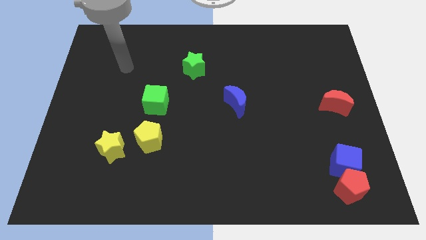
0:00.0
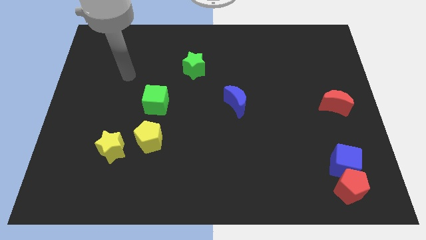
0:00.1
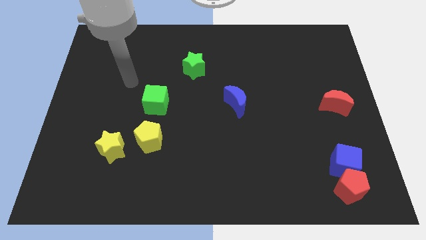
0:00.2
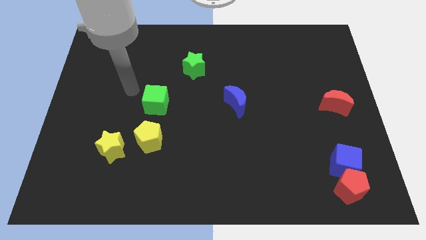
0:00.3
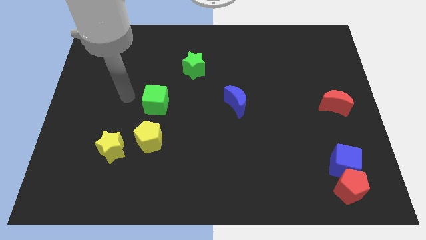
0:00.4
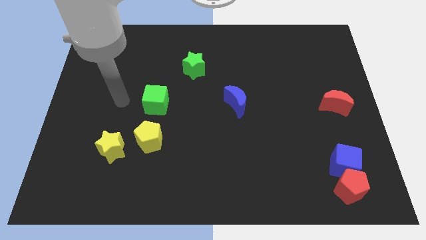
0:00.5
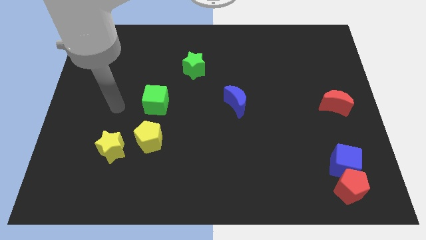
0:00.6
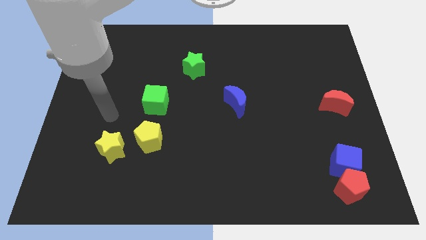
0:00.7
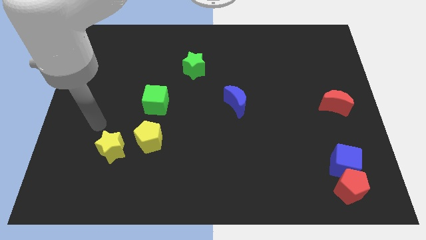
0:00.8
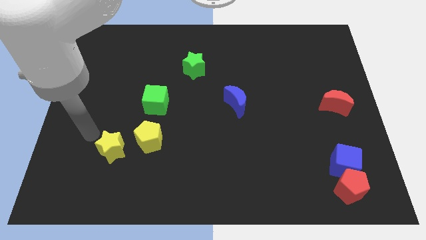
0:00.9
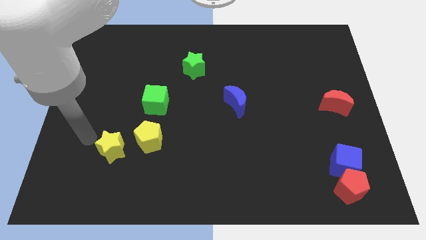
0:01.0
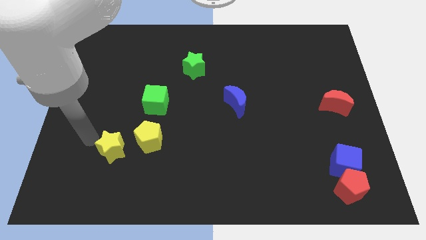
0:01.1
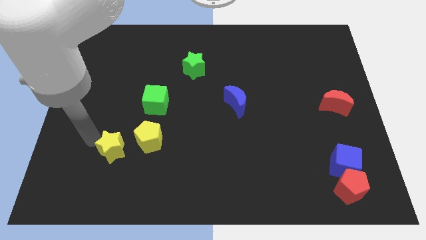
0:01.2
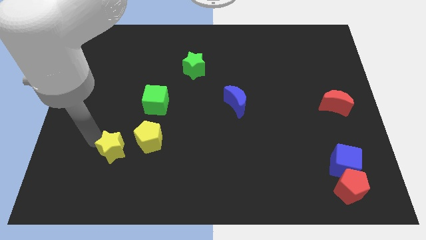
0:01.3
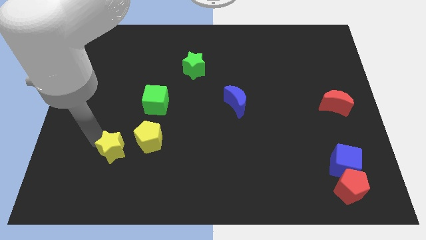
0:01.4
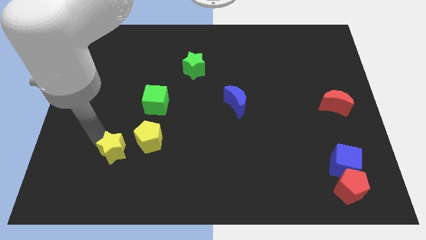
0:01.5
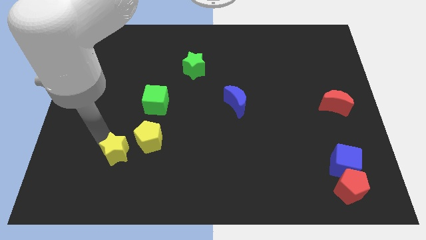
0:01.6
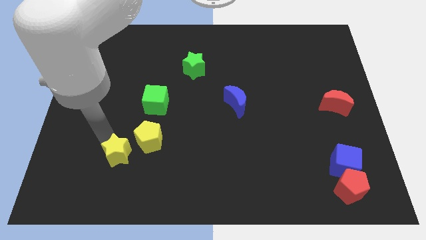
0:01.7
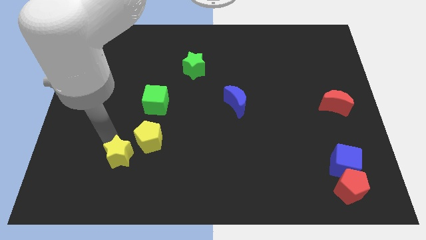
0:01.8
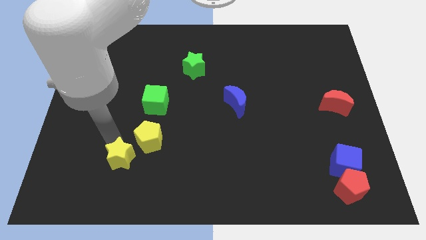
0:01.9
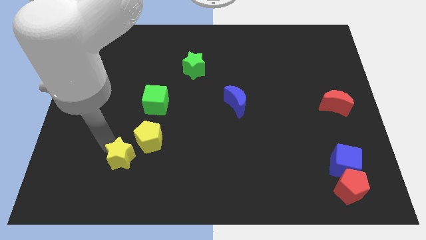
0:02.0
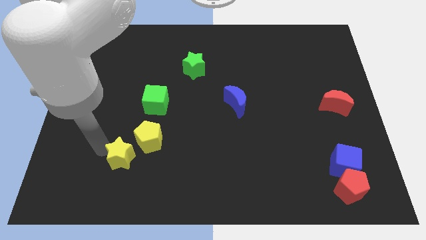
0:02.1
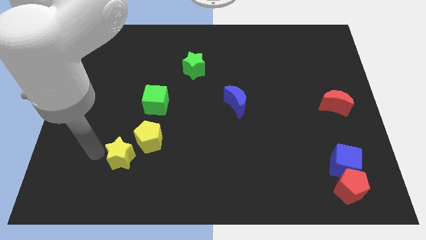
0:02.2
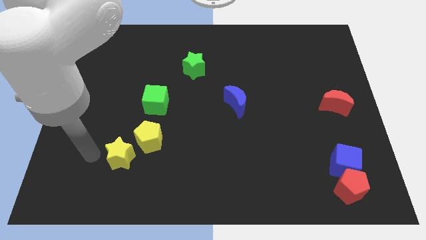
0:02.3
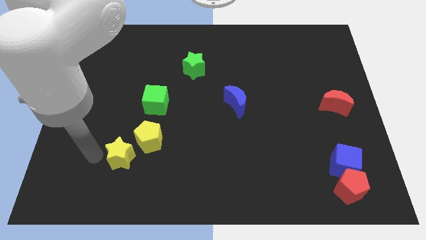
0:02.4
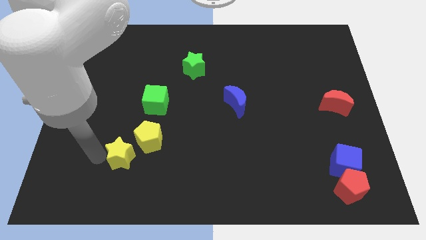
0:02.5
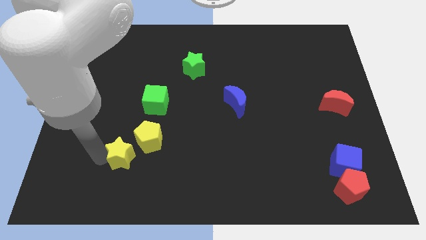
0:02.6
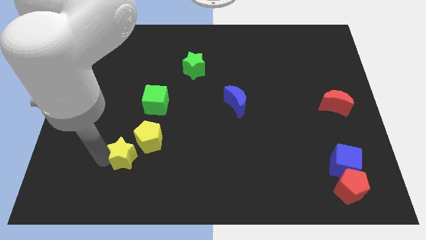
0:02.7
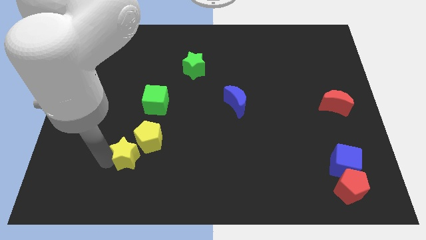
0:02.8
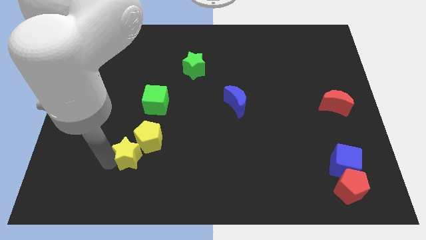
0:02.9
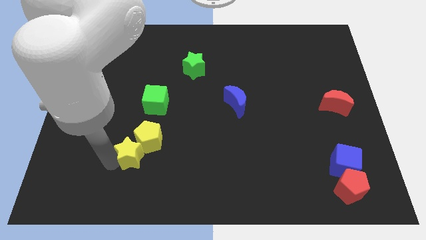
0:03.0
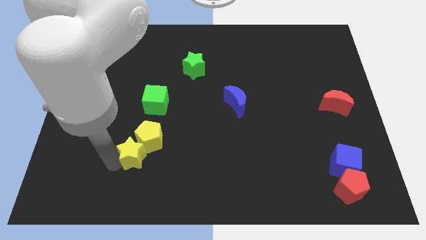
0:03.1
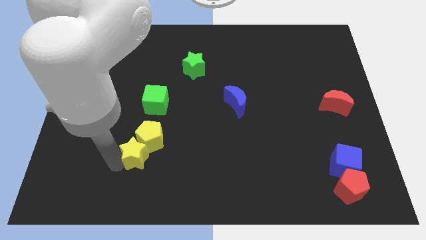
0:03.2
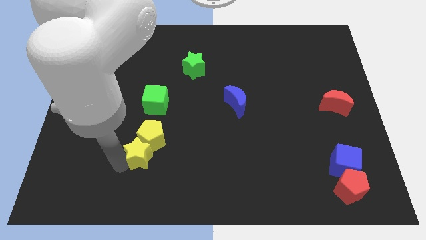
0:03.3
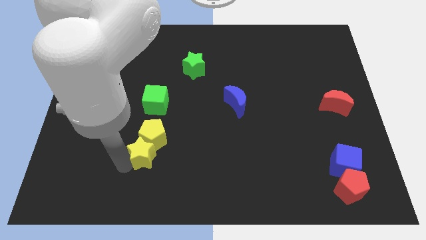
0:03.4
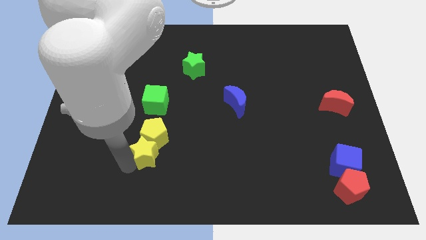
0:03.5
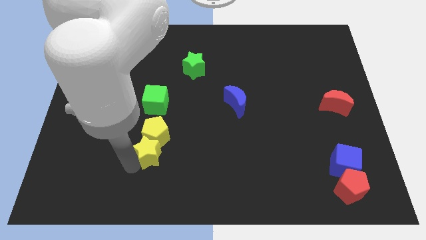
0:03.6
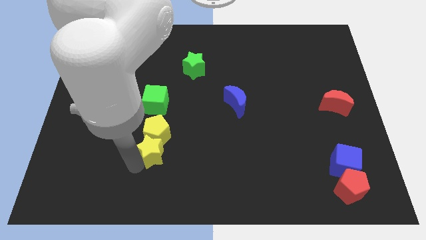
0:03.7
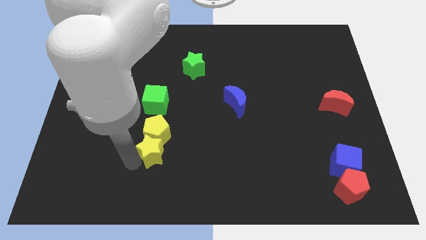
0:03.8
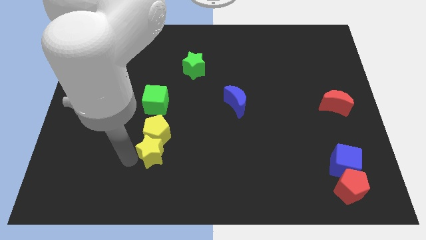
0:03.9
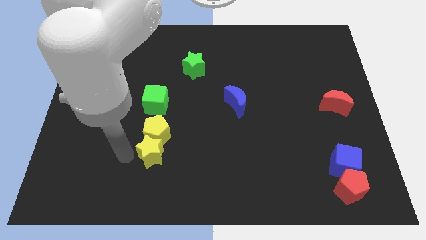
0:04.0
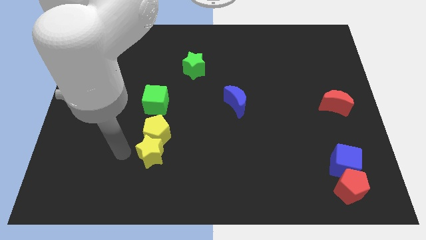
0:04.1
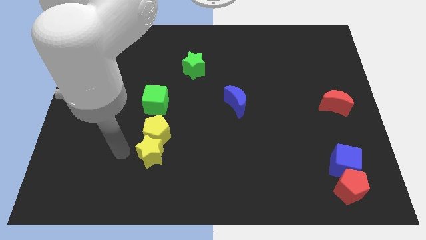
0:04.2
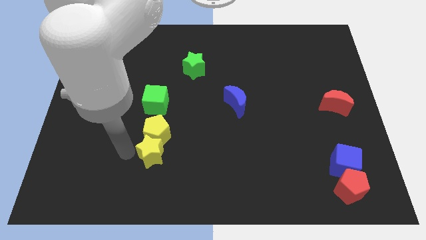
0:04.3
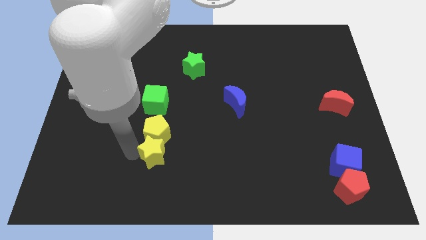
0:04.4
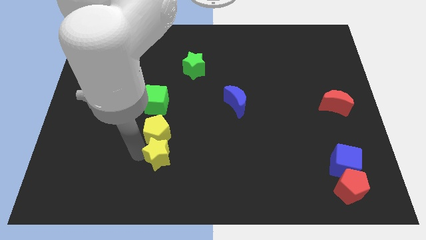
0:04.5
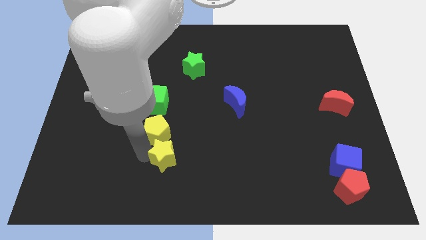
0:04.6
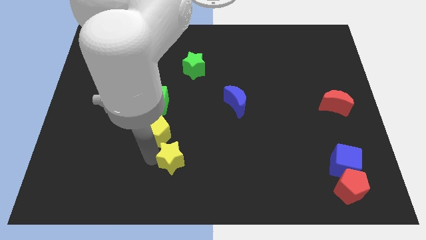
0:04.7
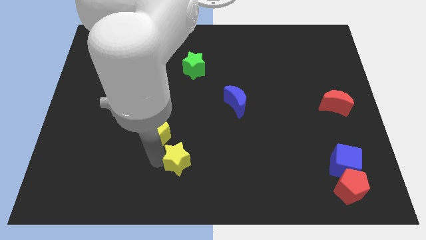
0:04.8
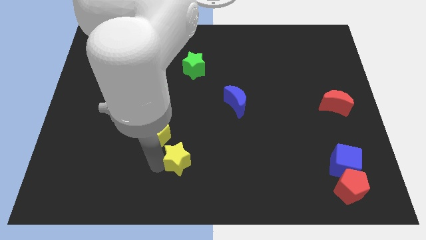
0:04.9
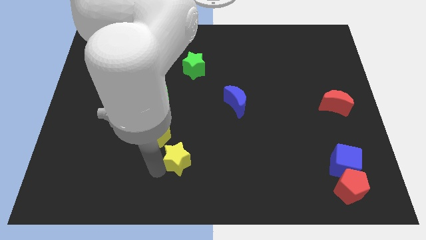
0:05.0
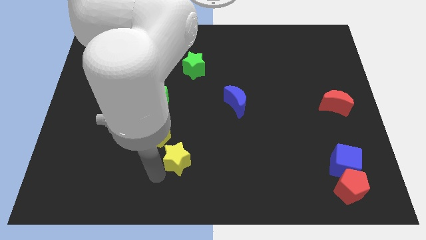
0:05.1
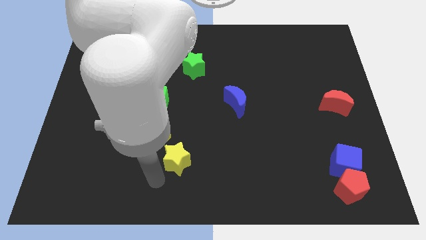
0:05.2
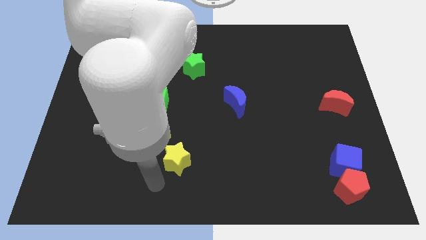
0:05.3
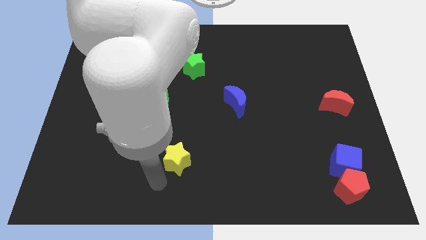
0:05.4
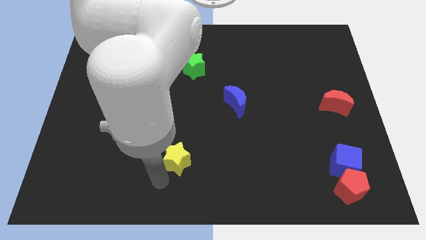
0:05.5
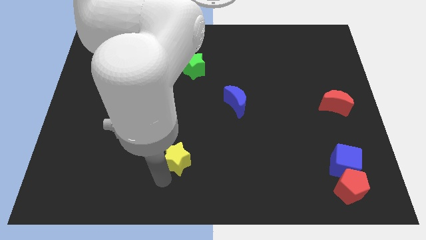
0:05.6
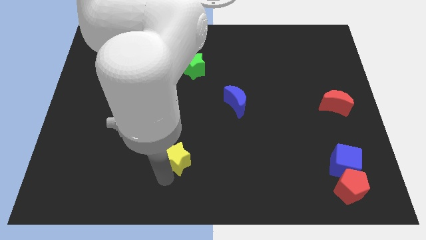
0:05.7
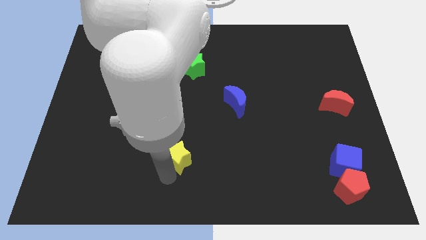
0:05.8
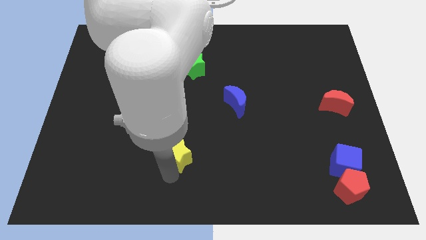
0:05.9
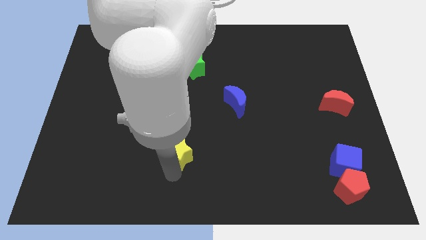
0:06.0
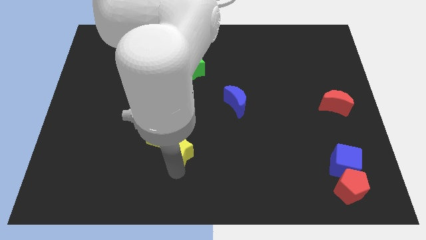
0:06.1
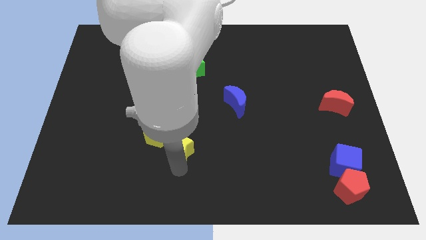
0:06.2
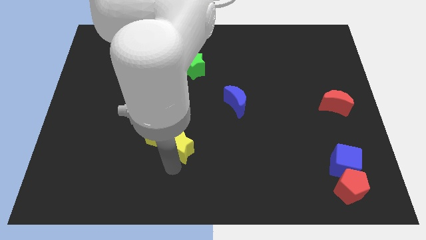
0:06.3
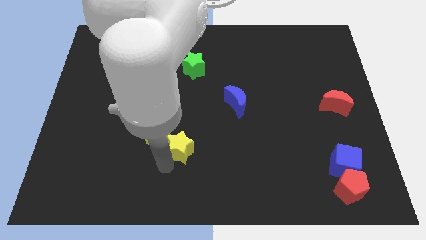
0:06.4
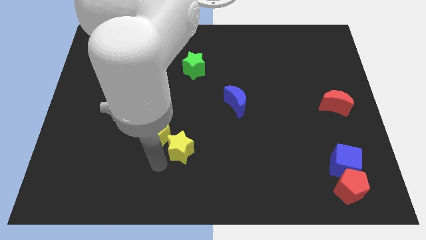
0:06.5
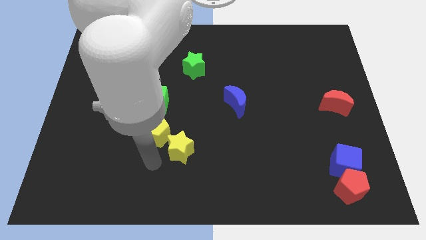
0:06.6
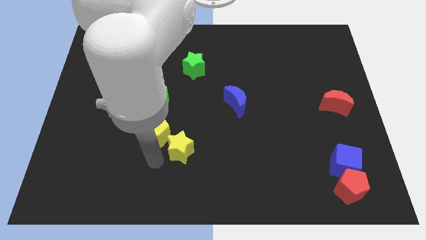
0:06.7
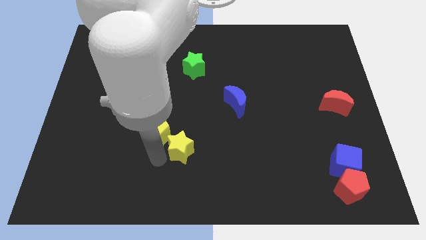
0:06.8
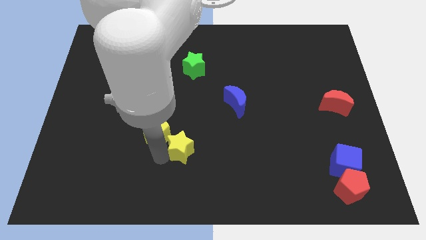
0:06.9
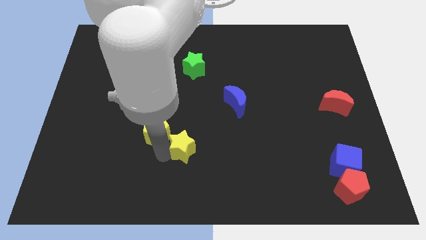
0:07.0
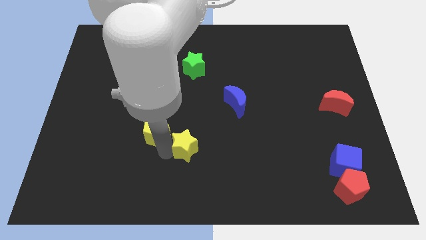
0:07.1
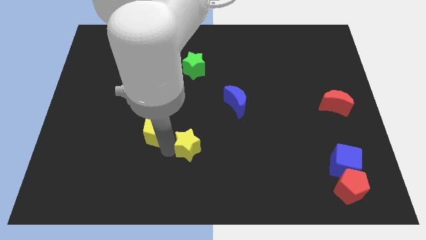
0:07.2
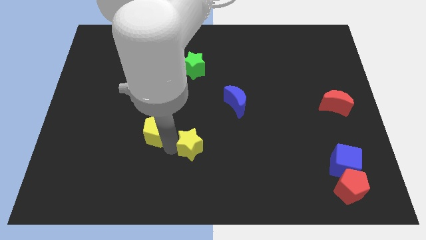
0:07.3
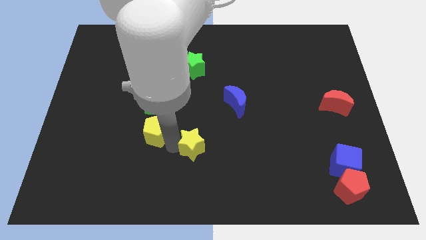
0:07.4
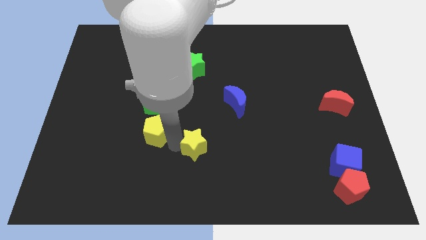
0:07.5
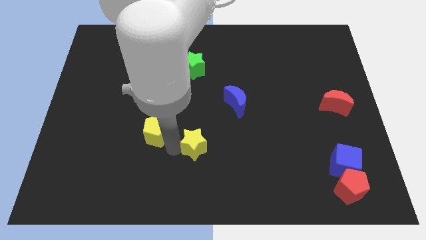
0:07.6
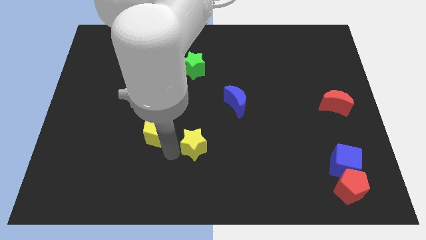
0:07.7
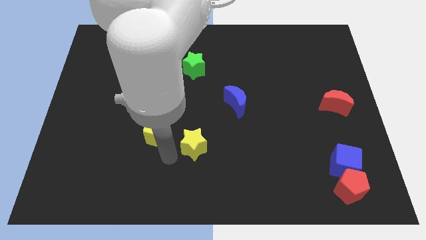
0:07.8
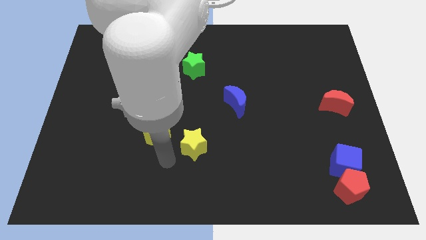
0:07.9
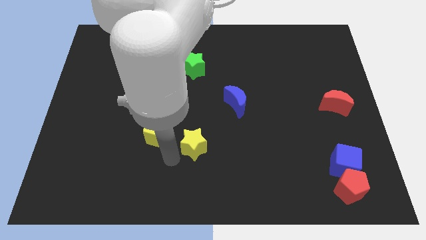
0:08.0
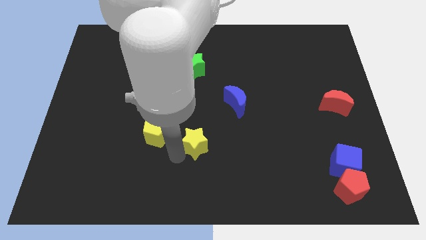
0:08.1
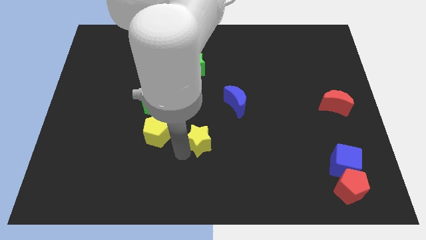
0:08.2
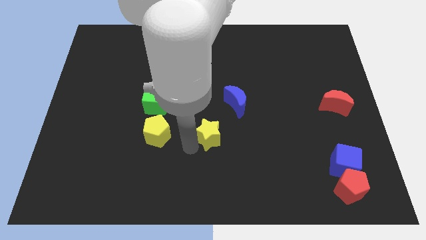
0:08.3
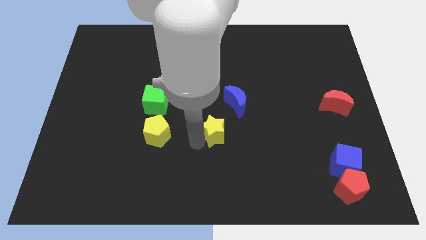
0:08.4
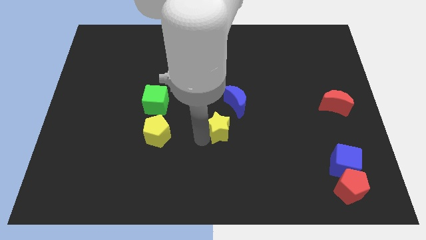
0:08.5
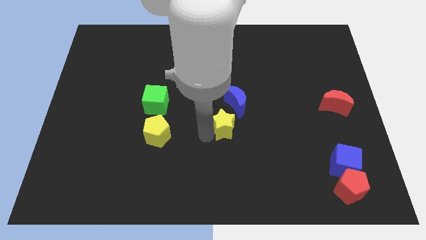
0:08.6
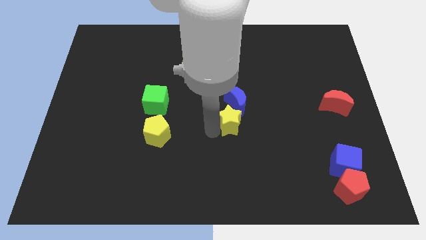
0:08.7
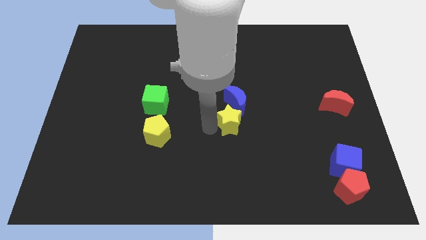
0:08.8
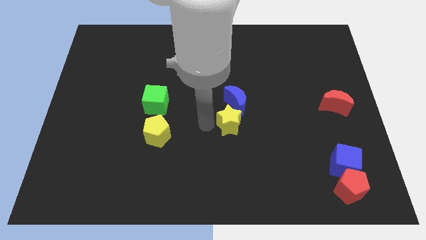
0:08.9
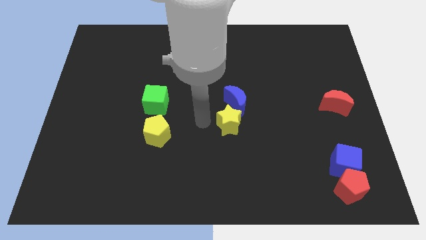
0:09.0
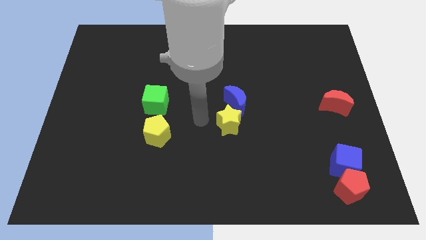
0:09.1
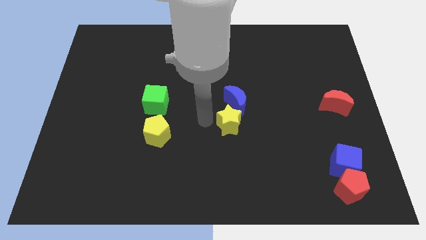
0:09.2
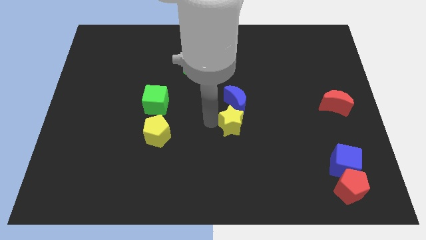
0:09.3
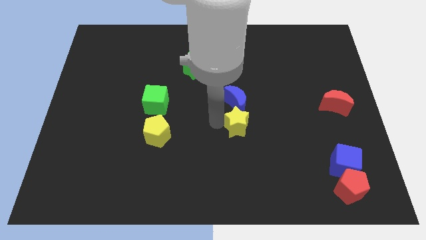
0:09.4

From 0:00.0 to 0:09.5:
move the yellow star diagonally down and to the right of the blue moon
